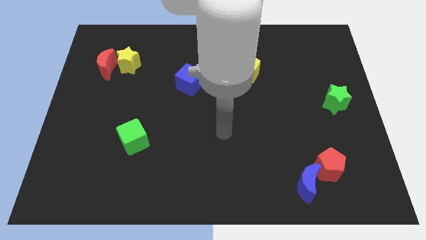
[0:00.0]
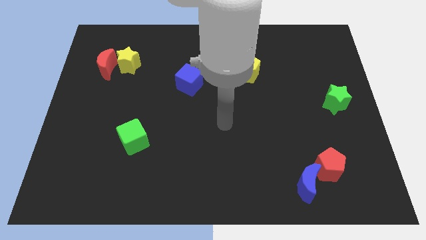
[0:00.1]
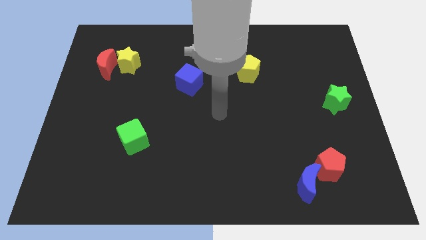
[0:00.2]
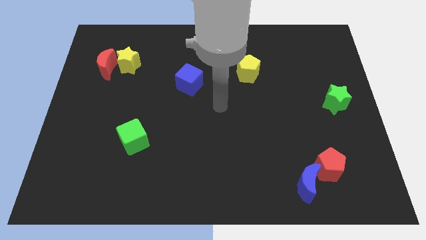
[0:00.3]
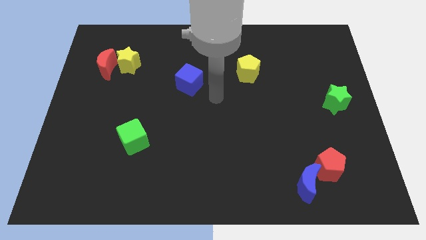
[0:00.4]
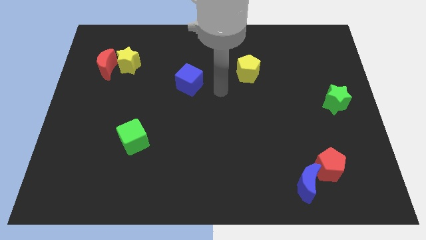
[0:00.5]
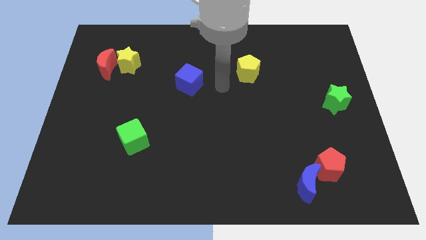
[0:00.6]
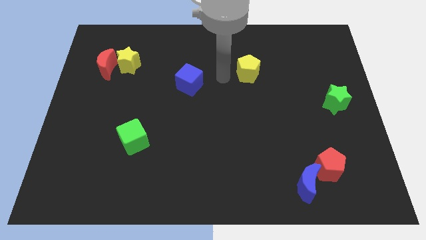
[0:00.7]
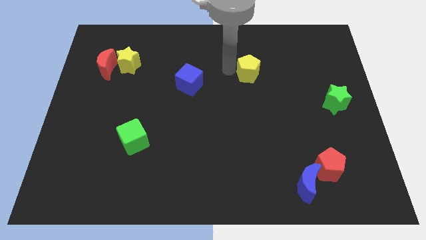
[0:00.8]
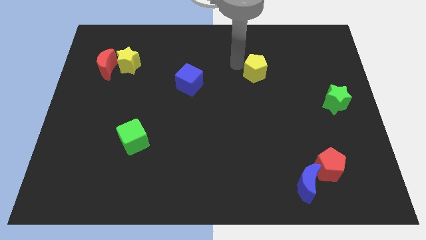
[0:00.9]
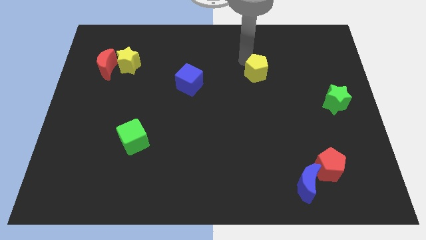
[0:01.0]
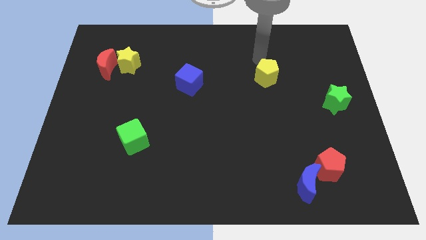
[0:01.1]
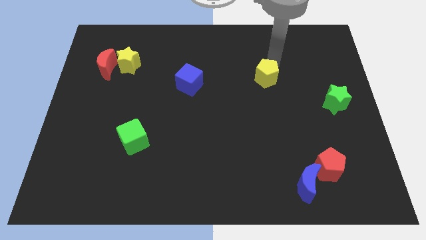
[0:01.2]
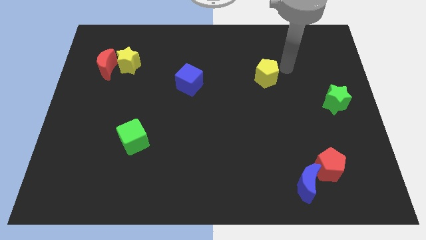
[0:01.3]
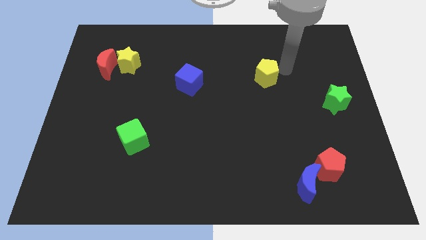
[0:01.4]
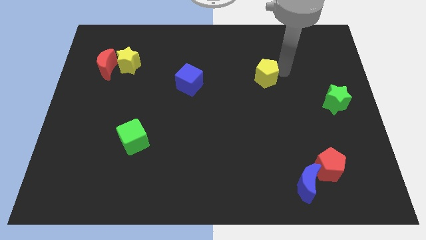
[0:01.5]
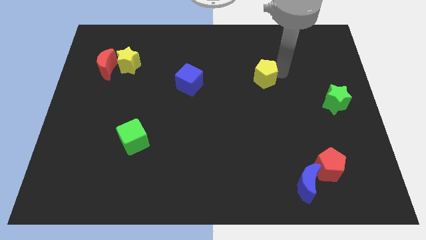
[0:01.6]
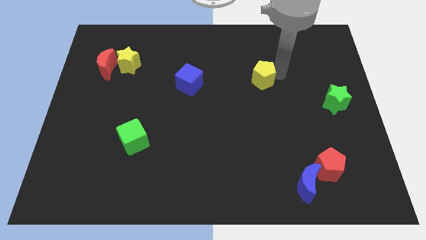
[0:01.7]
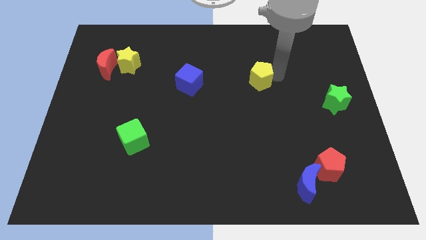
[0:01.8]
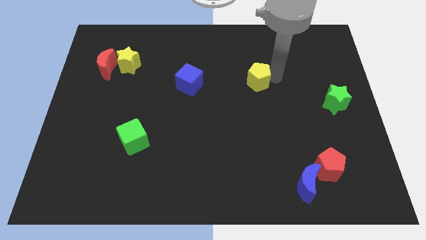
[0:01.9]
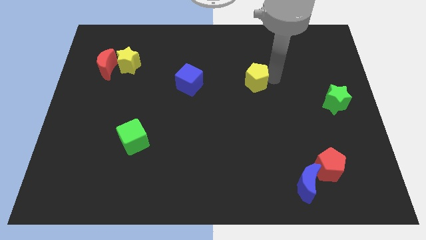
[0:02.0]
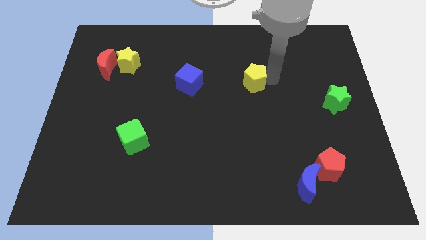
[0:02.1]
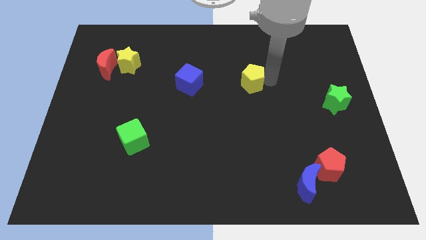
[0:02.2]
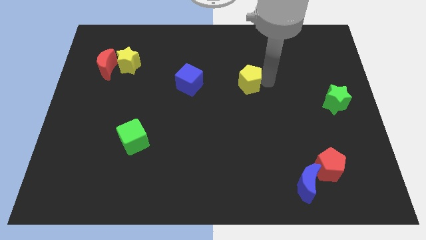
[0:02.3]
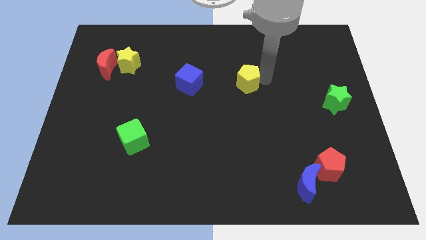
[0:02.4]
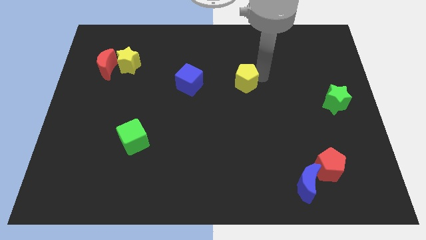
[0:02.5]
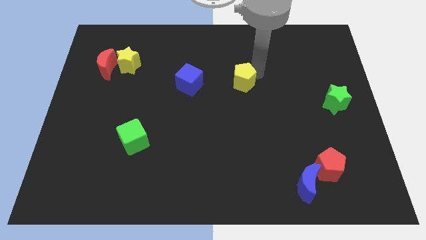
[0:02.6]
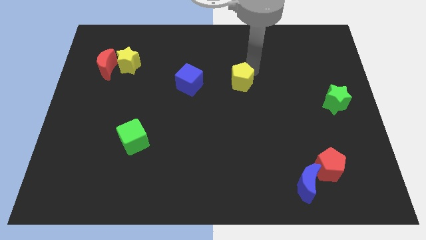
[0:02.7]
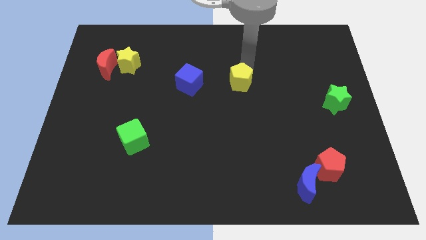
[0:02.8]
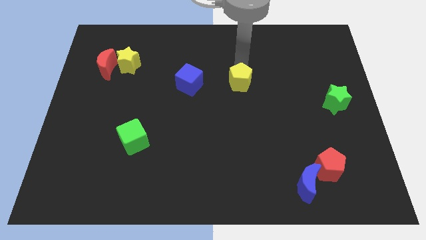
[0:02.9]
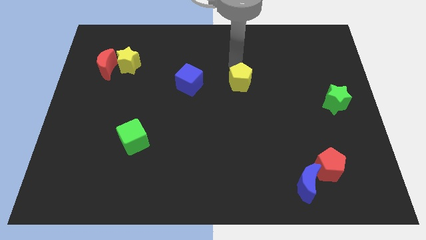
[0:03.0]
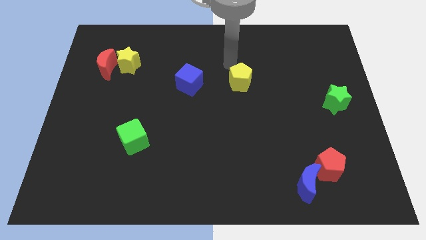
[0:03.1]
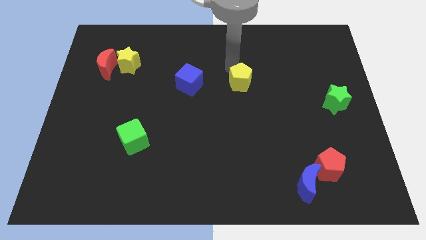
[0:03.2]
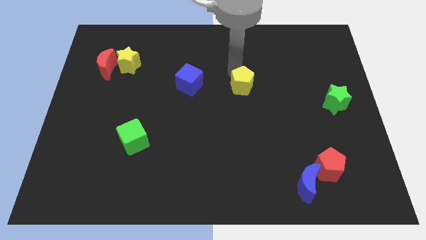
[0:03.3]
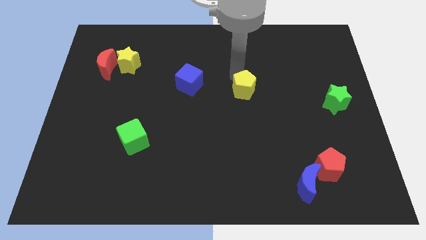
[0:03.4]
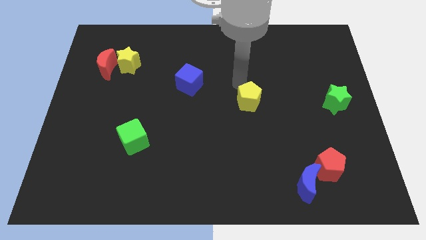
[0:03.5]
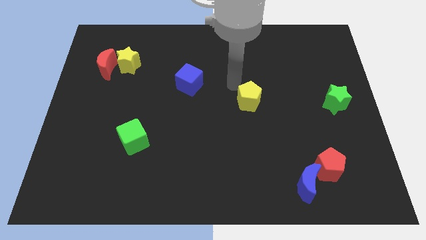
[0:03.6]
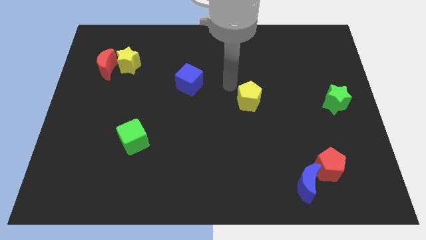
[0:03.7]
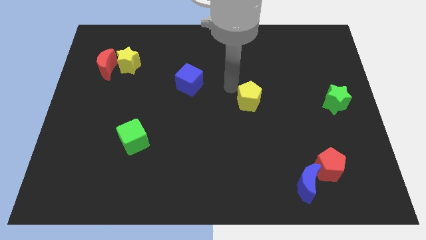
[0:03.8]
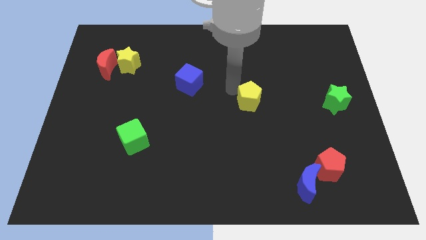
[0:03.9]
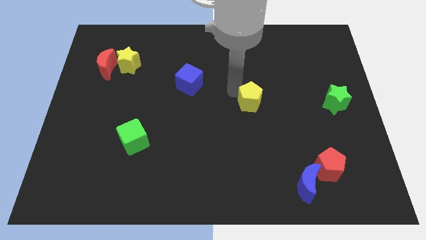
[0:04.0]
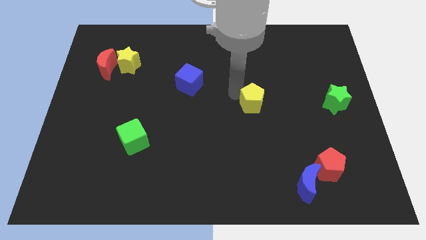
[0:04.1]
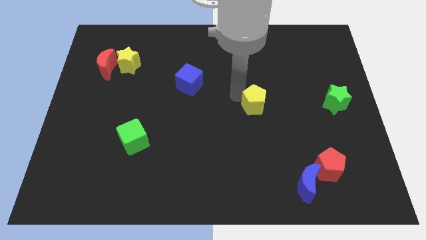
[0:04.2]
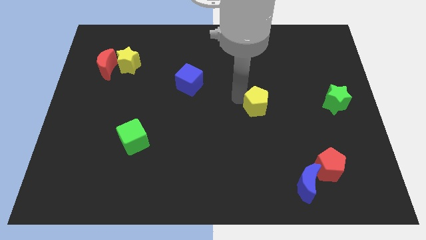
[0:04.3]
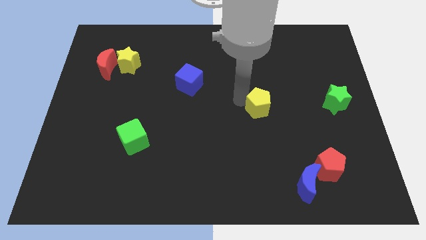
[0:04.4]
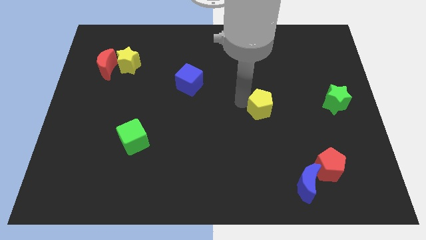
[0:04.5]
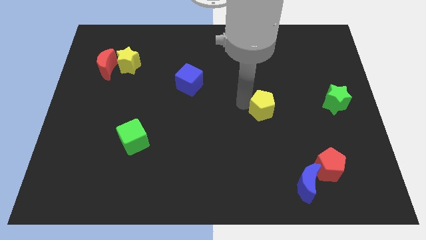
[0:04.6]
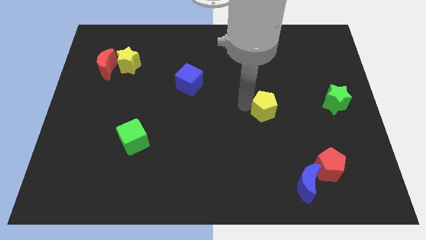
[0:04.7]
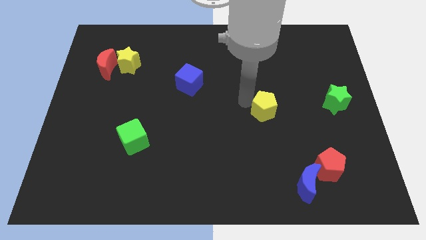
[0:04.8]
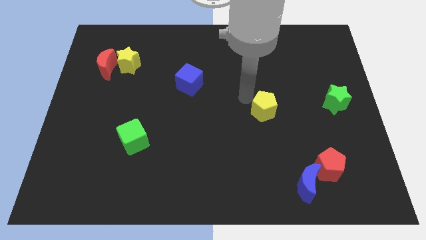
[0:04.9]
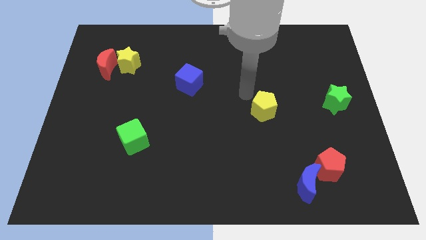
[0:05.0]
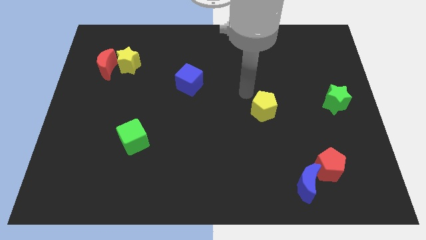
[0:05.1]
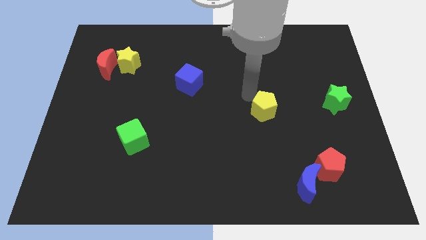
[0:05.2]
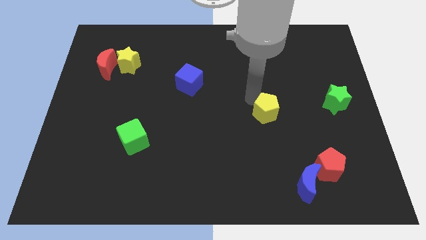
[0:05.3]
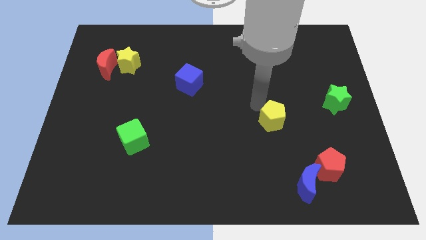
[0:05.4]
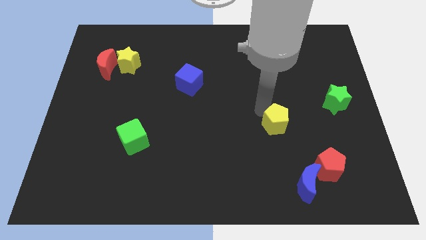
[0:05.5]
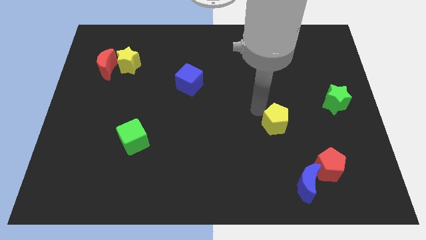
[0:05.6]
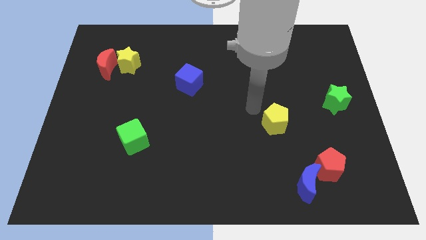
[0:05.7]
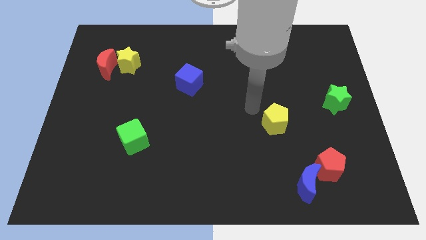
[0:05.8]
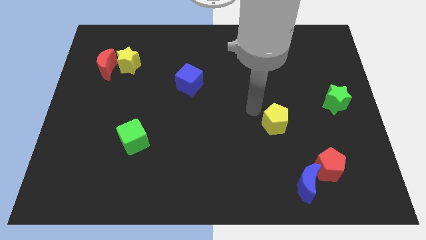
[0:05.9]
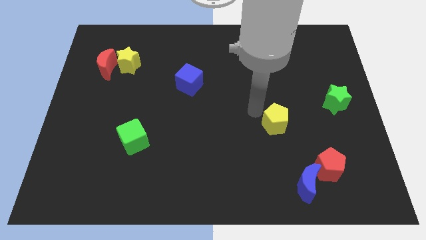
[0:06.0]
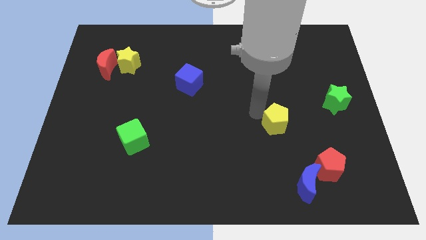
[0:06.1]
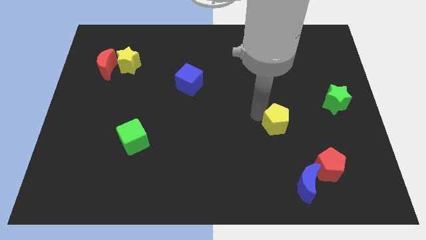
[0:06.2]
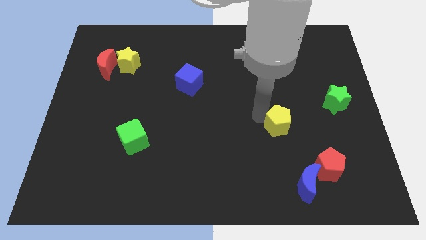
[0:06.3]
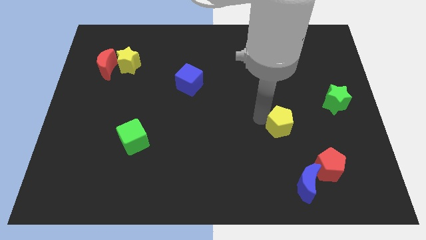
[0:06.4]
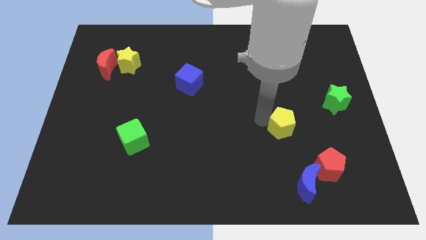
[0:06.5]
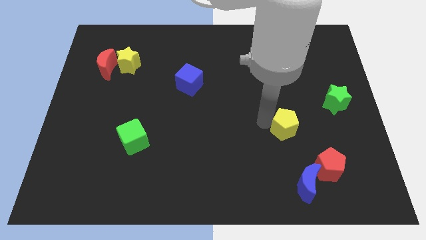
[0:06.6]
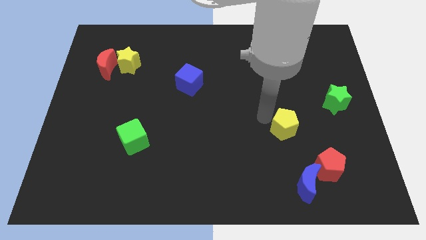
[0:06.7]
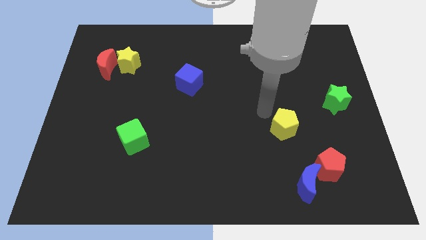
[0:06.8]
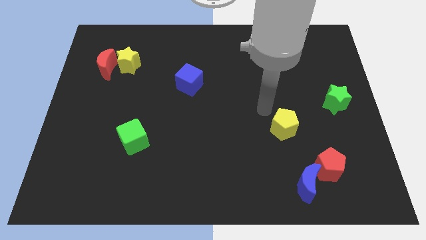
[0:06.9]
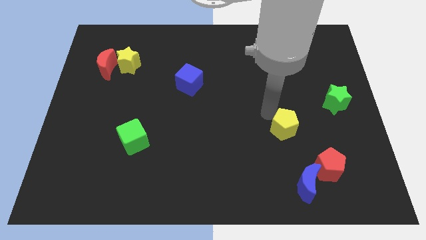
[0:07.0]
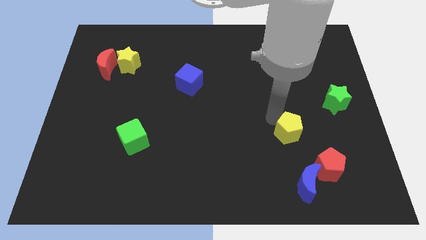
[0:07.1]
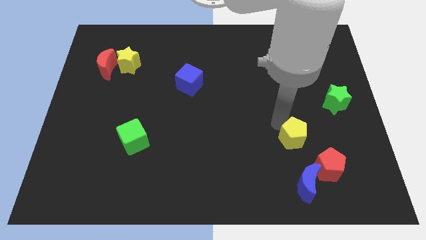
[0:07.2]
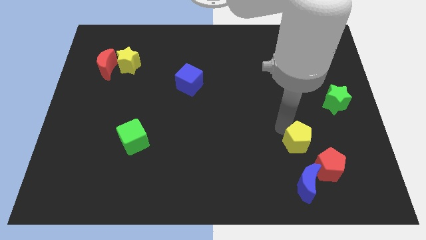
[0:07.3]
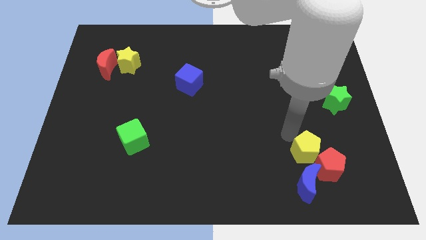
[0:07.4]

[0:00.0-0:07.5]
slide the yellow pentagon towards the red pentagon
